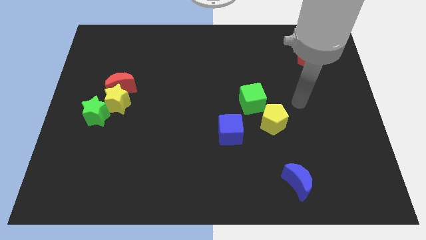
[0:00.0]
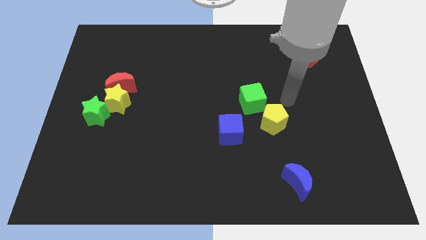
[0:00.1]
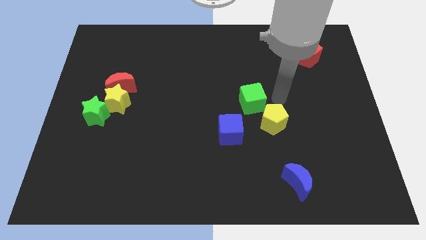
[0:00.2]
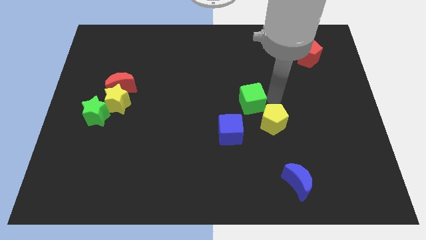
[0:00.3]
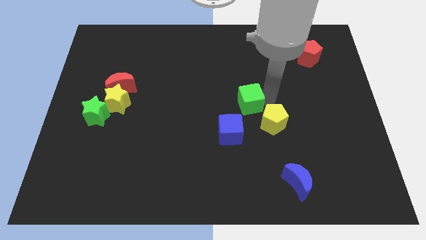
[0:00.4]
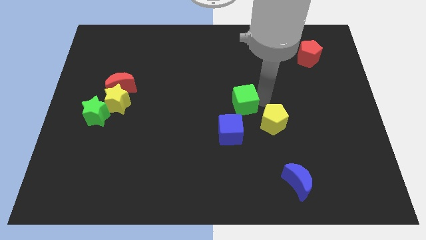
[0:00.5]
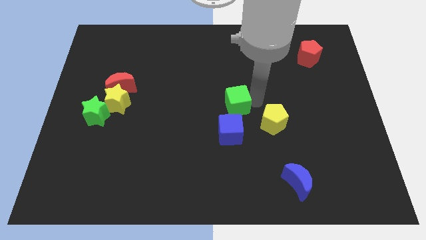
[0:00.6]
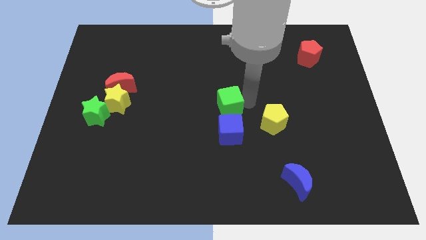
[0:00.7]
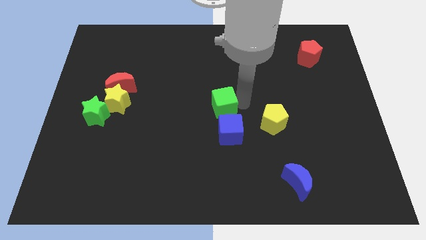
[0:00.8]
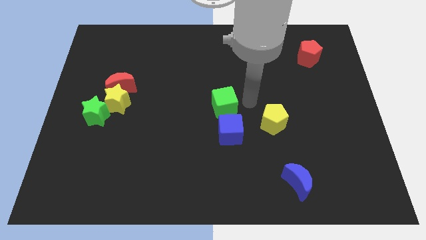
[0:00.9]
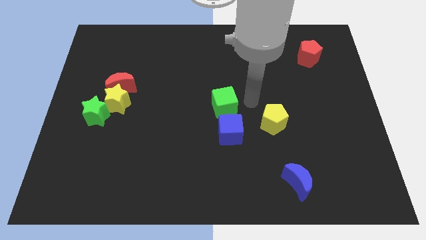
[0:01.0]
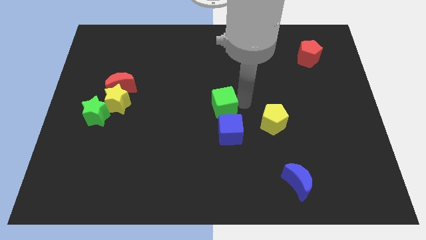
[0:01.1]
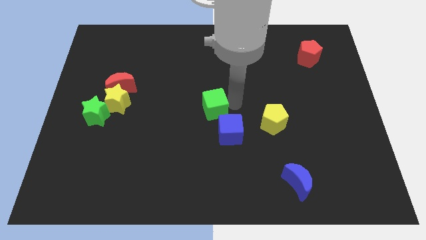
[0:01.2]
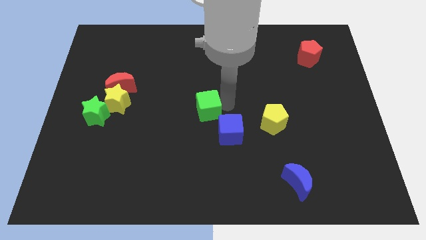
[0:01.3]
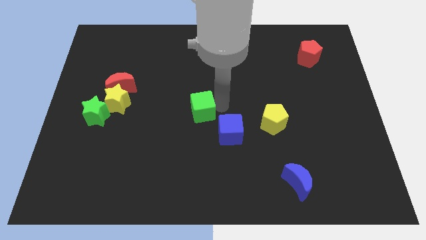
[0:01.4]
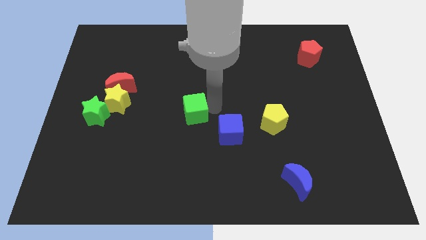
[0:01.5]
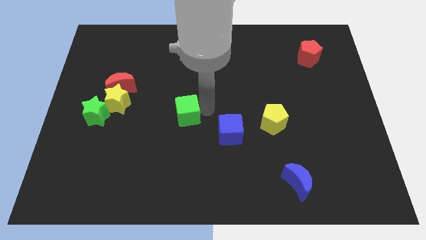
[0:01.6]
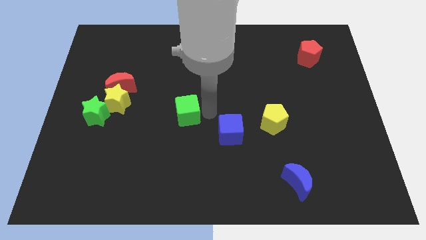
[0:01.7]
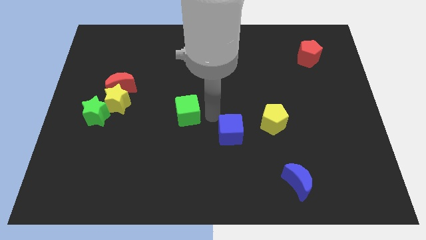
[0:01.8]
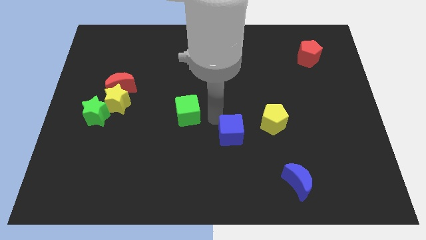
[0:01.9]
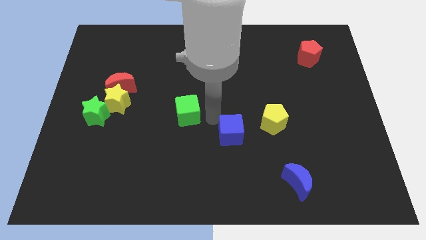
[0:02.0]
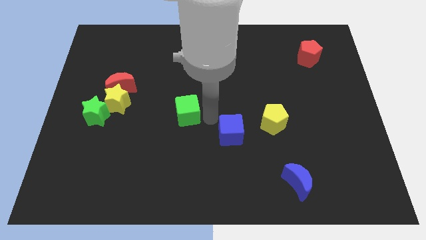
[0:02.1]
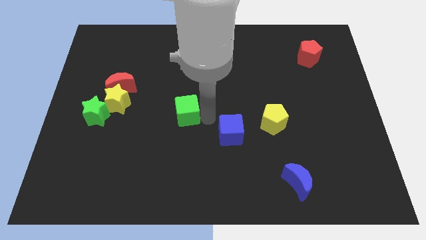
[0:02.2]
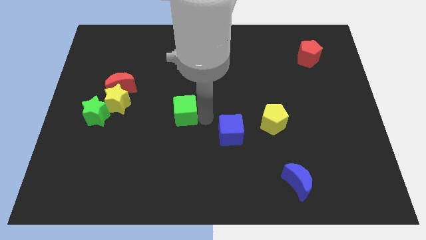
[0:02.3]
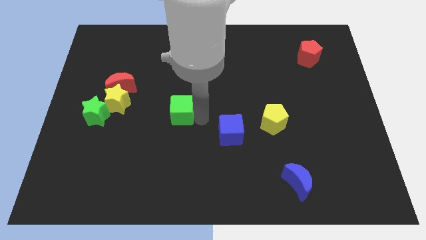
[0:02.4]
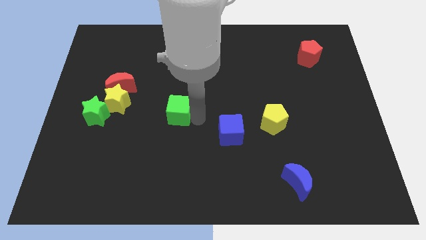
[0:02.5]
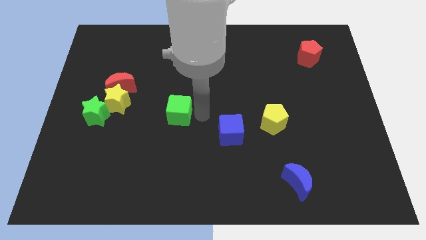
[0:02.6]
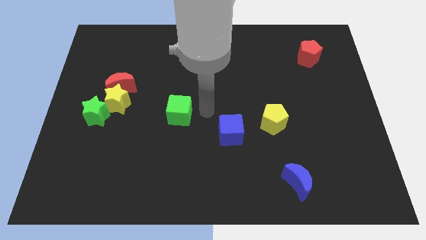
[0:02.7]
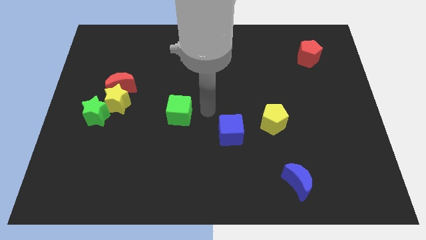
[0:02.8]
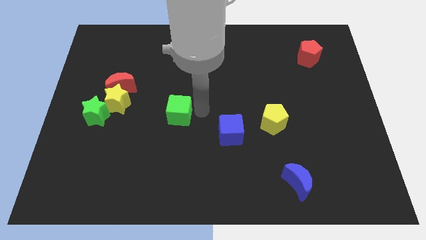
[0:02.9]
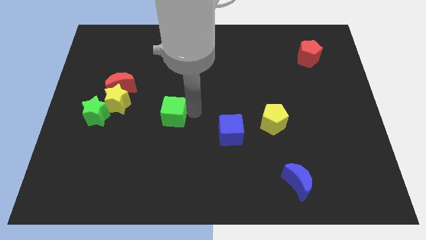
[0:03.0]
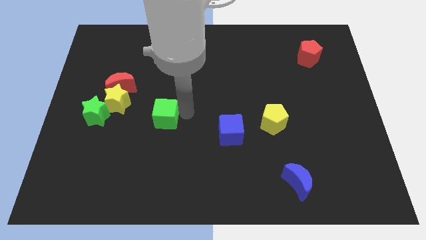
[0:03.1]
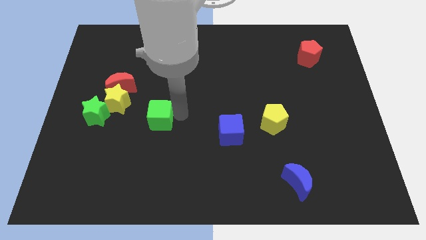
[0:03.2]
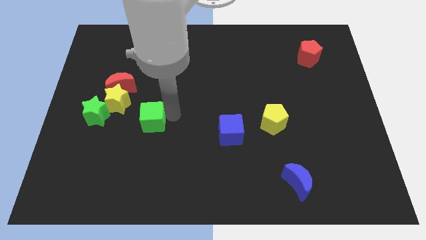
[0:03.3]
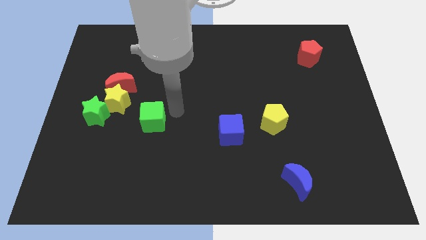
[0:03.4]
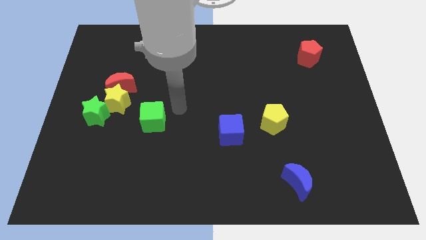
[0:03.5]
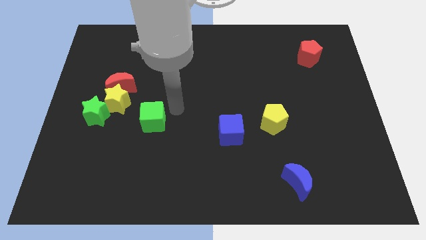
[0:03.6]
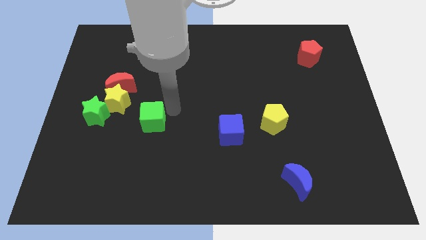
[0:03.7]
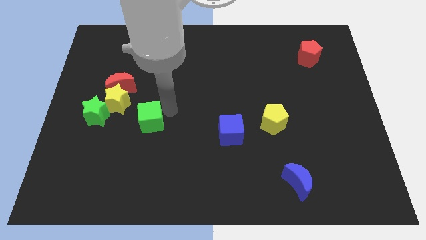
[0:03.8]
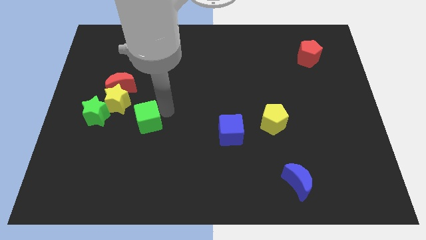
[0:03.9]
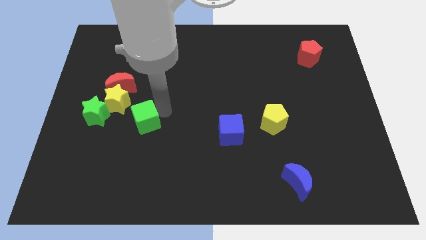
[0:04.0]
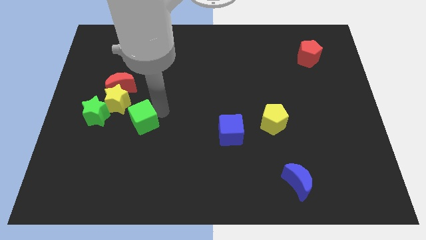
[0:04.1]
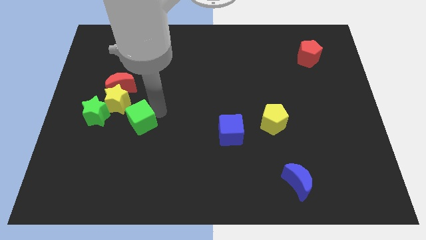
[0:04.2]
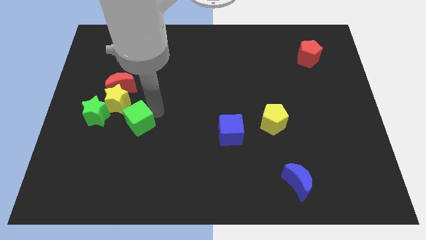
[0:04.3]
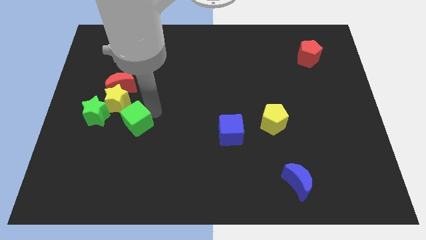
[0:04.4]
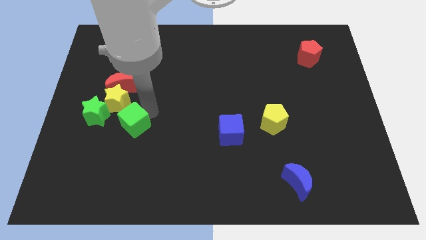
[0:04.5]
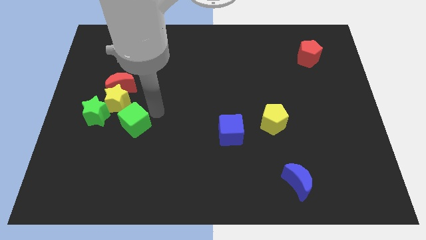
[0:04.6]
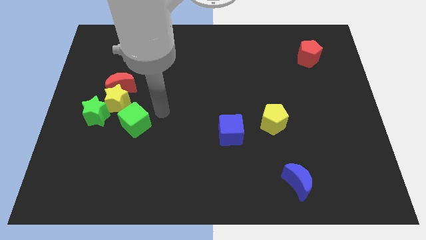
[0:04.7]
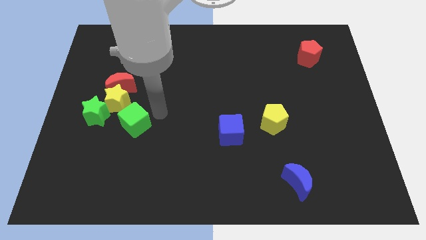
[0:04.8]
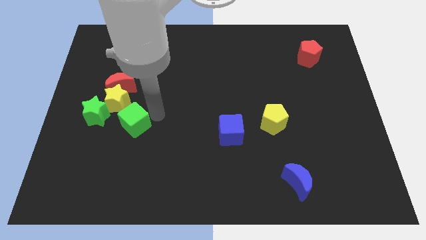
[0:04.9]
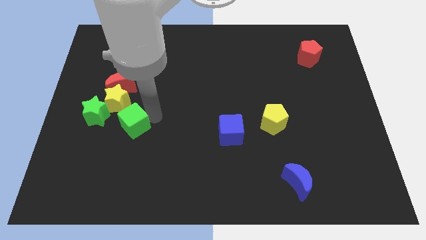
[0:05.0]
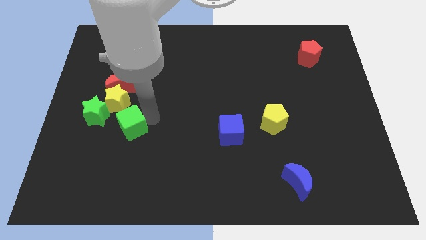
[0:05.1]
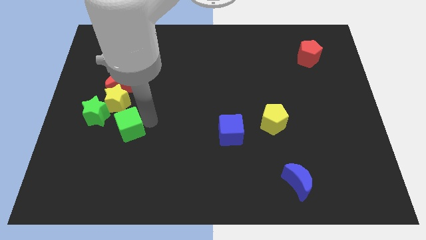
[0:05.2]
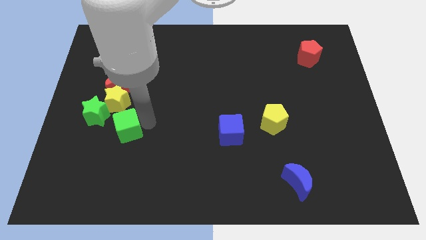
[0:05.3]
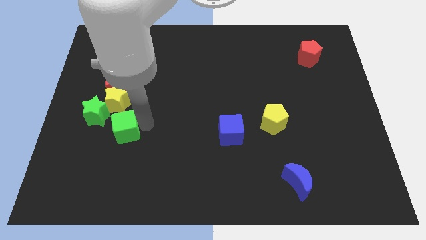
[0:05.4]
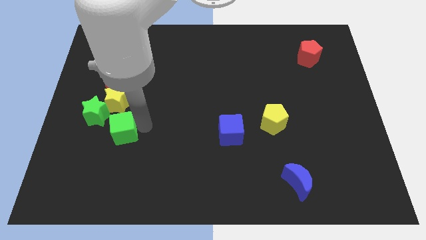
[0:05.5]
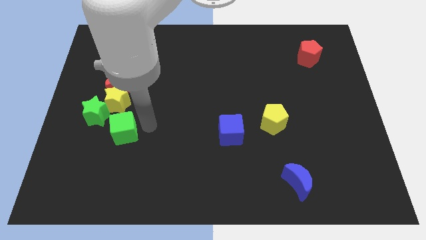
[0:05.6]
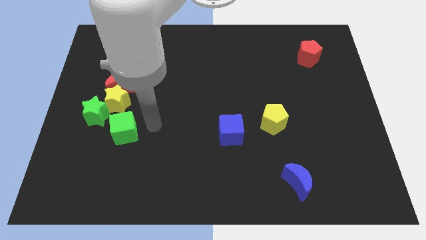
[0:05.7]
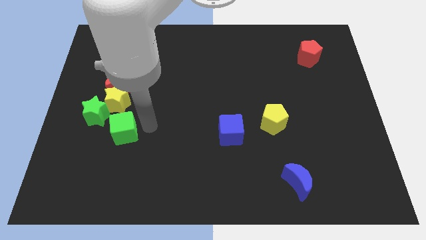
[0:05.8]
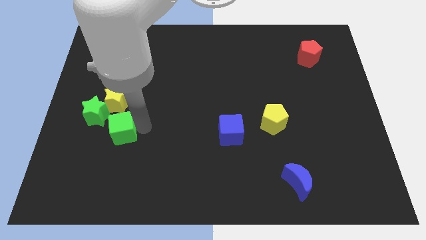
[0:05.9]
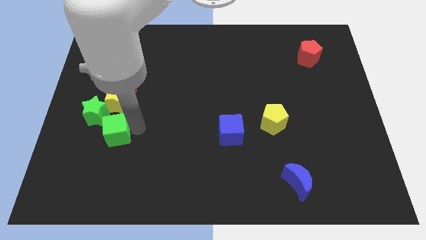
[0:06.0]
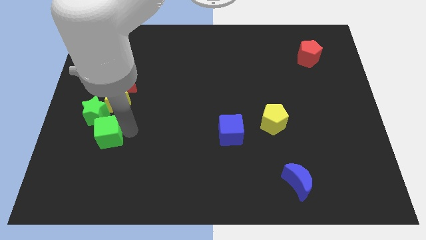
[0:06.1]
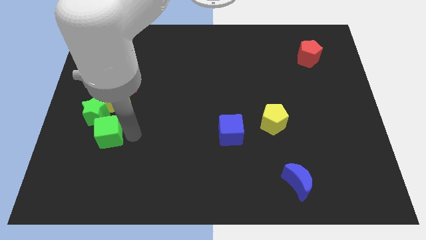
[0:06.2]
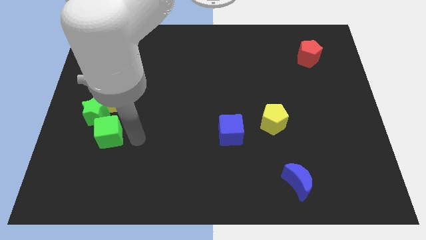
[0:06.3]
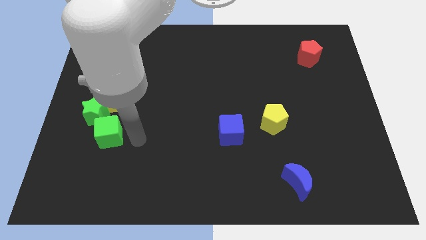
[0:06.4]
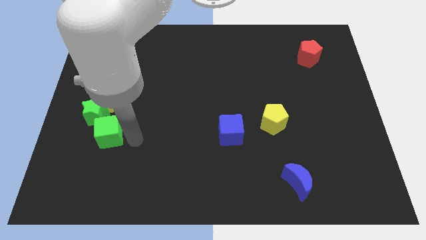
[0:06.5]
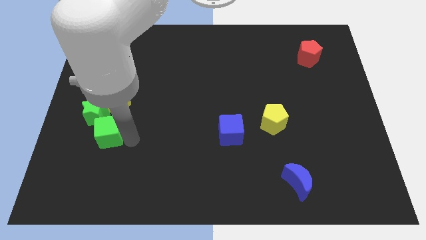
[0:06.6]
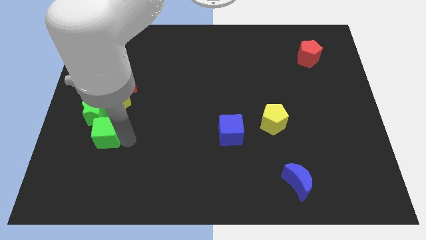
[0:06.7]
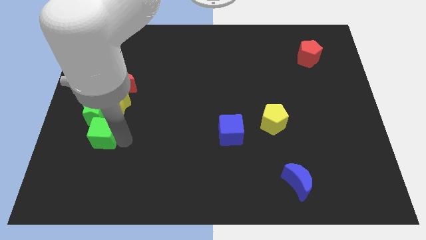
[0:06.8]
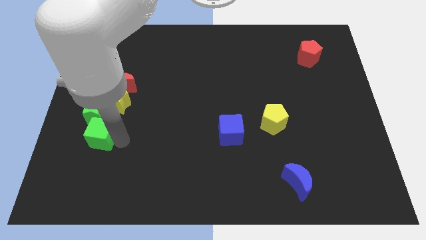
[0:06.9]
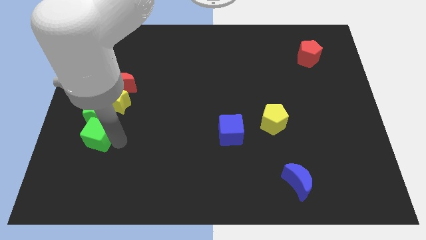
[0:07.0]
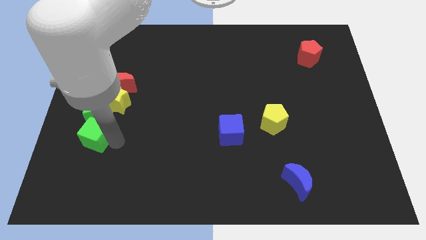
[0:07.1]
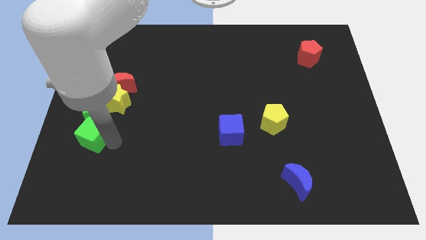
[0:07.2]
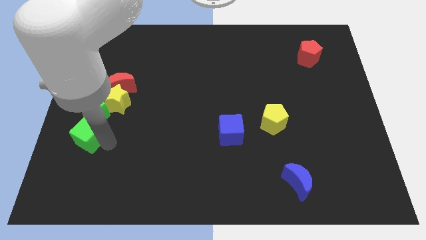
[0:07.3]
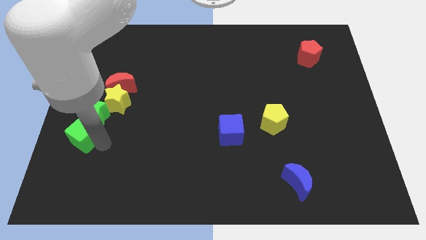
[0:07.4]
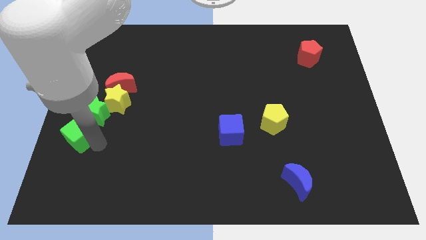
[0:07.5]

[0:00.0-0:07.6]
slide the green cube to the left side of the board
